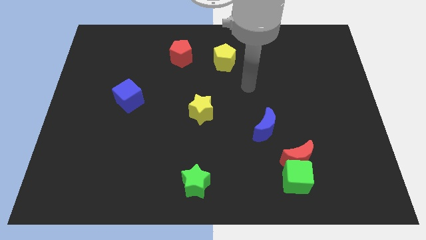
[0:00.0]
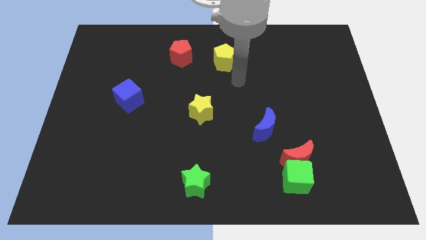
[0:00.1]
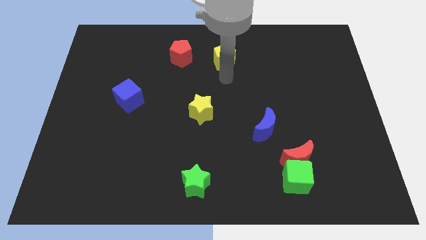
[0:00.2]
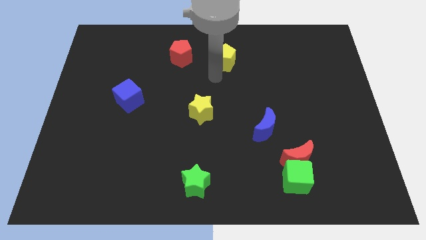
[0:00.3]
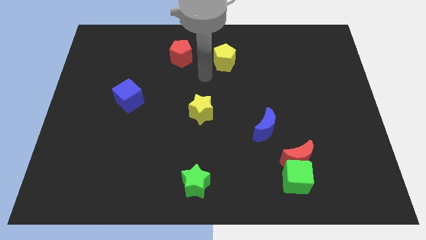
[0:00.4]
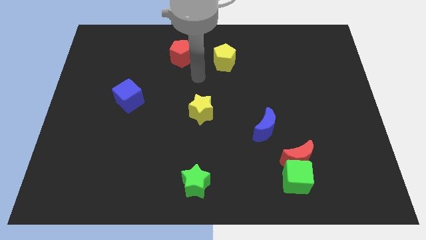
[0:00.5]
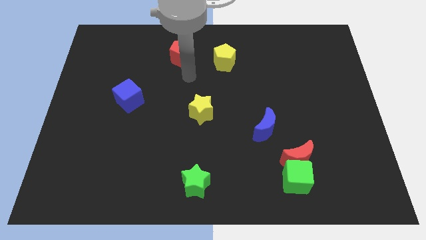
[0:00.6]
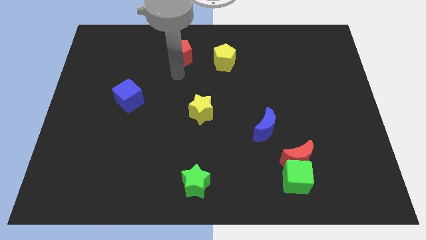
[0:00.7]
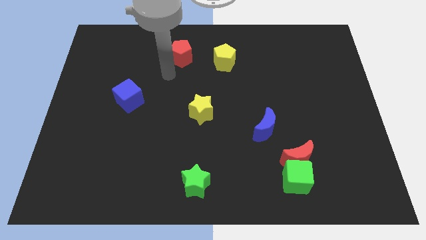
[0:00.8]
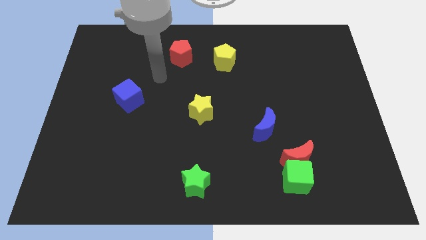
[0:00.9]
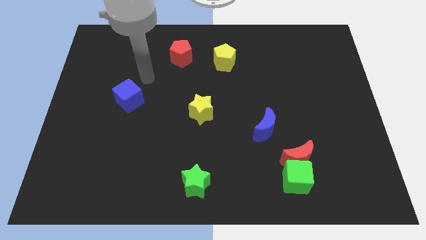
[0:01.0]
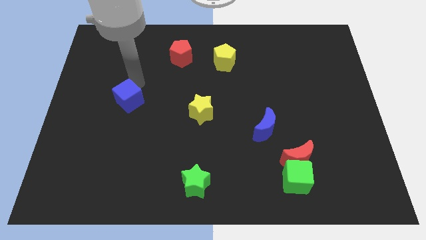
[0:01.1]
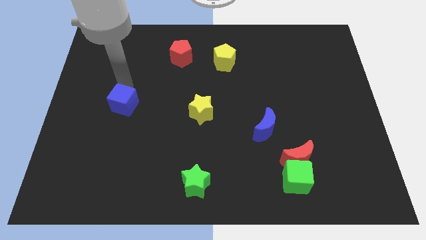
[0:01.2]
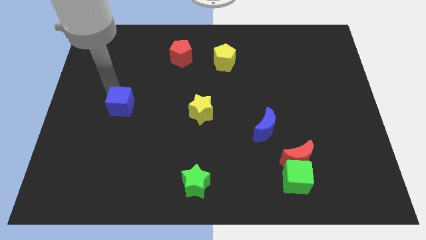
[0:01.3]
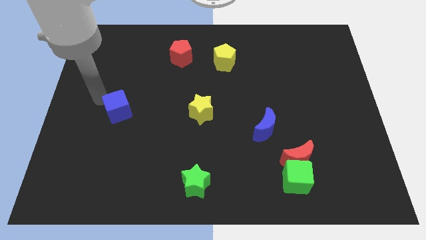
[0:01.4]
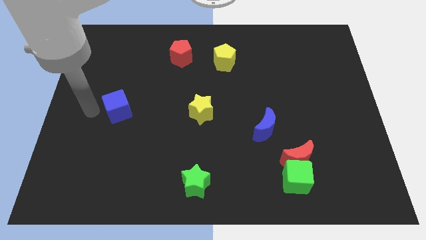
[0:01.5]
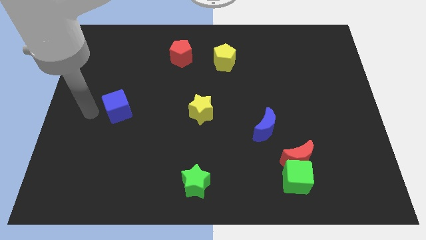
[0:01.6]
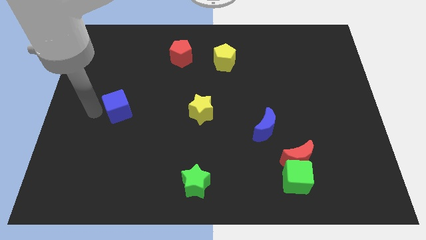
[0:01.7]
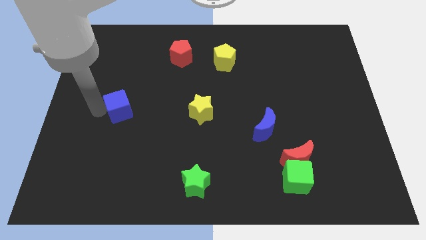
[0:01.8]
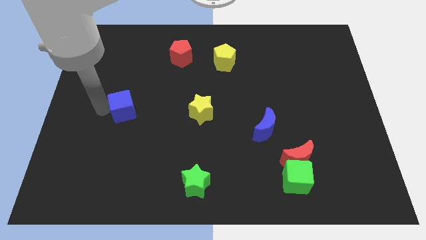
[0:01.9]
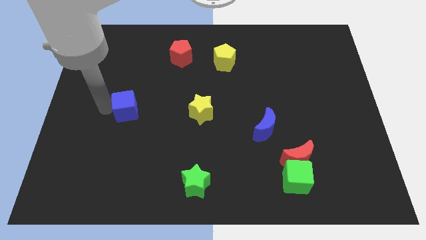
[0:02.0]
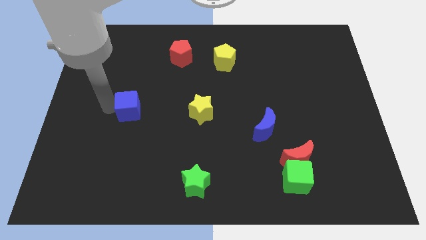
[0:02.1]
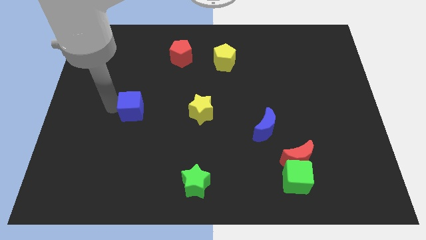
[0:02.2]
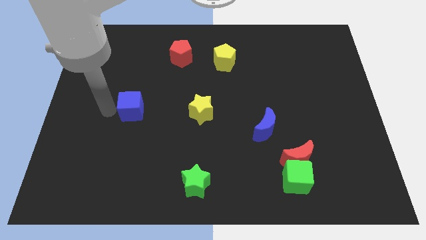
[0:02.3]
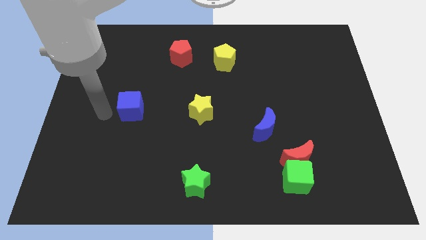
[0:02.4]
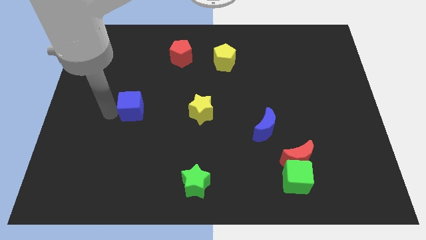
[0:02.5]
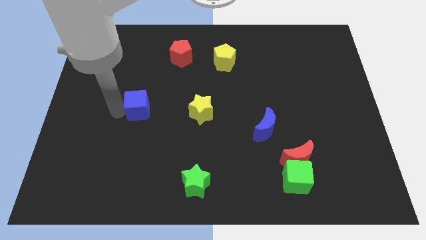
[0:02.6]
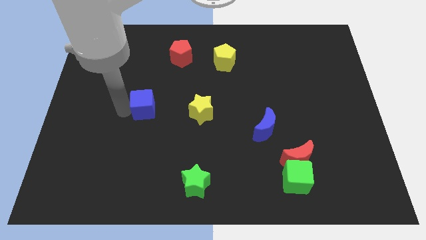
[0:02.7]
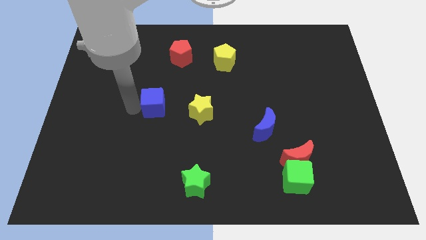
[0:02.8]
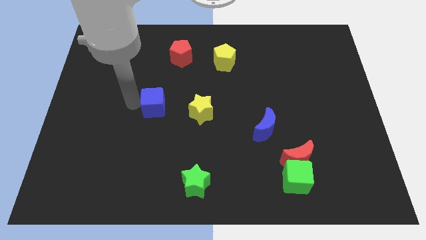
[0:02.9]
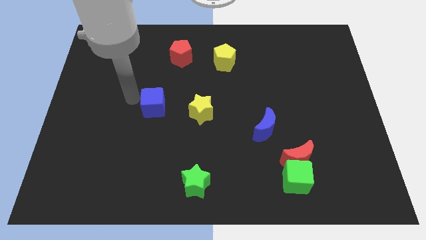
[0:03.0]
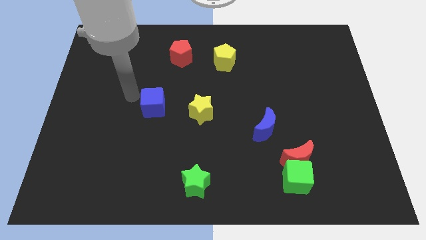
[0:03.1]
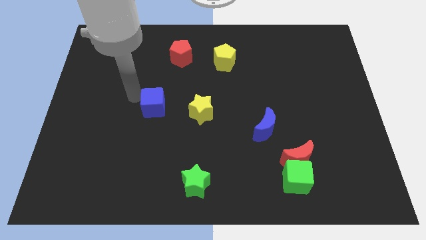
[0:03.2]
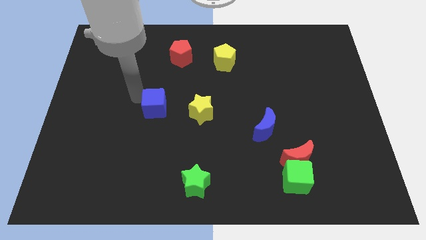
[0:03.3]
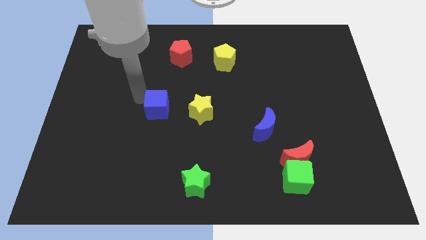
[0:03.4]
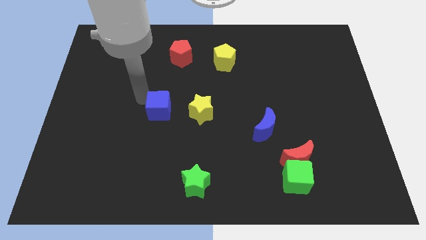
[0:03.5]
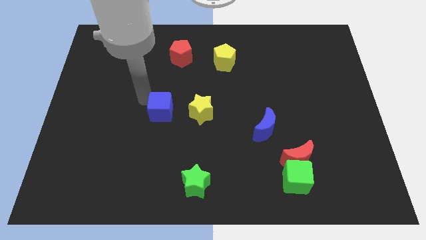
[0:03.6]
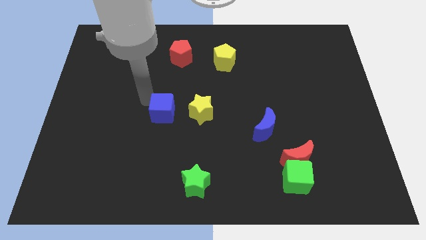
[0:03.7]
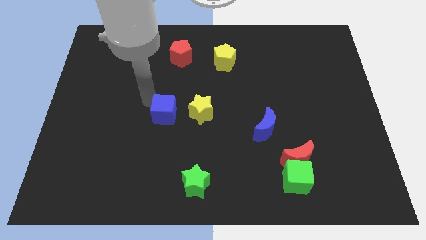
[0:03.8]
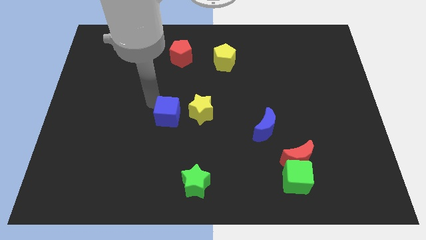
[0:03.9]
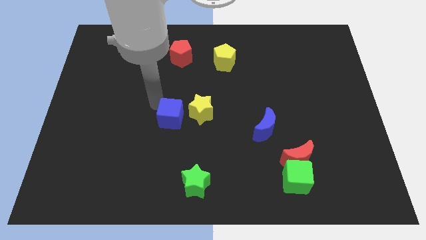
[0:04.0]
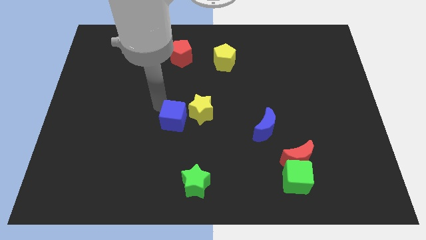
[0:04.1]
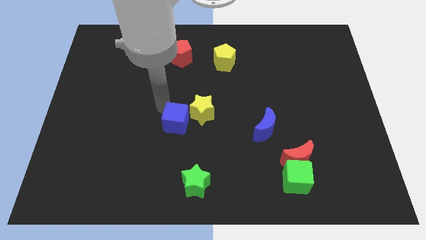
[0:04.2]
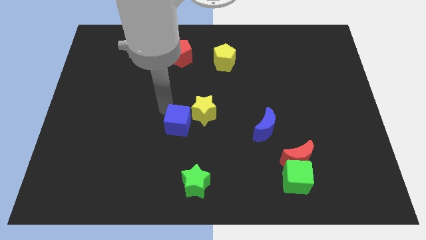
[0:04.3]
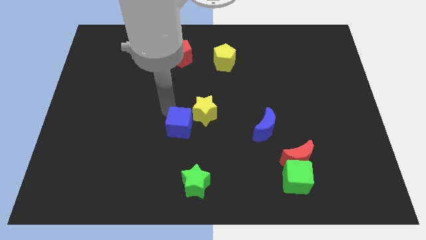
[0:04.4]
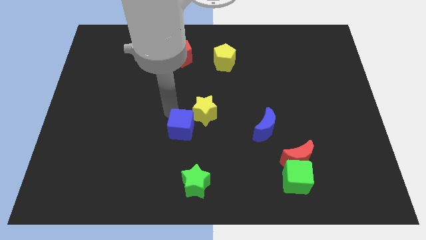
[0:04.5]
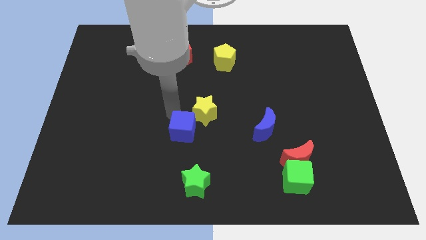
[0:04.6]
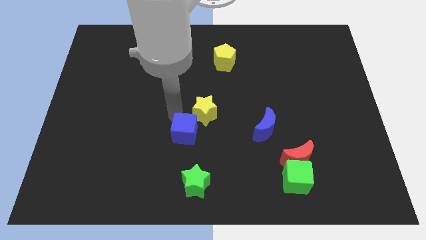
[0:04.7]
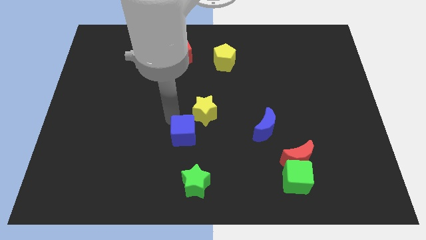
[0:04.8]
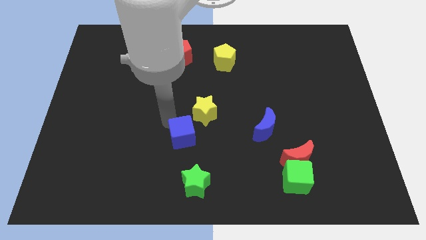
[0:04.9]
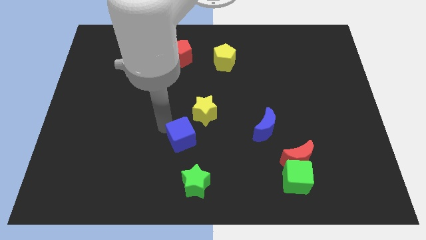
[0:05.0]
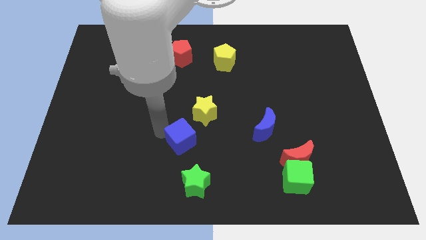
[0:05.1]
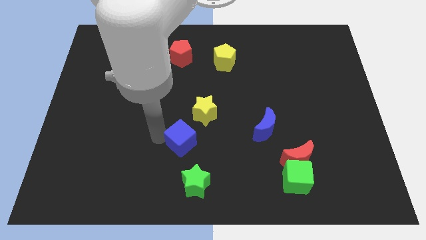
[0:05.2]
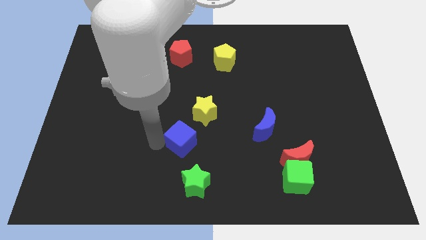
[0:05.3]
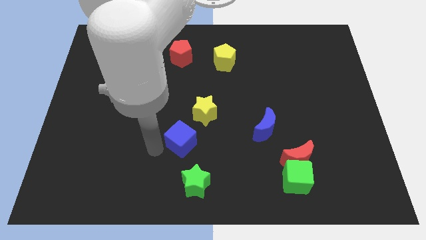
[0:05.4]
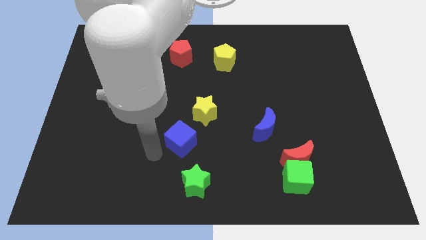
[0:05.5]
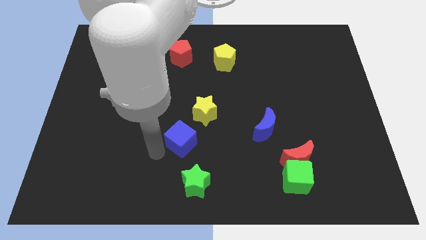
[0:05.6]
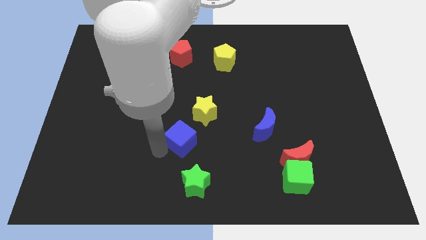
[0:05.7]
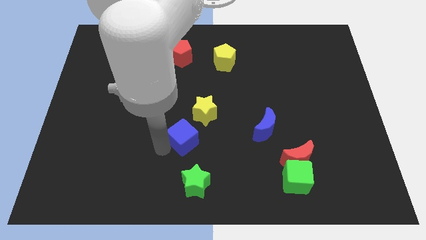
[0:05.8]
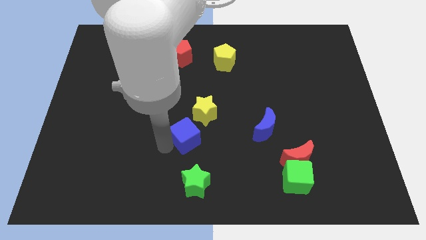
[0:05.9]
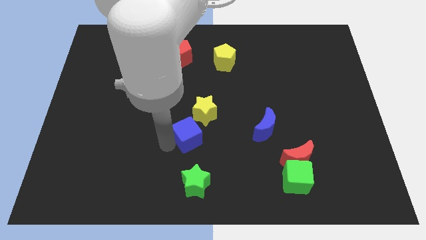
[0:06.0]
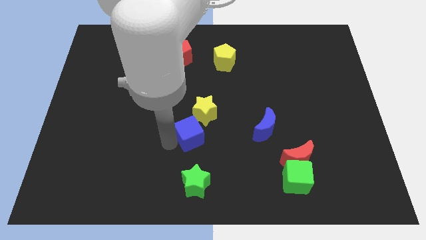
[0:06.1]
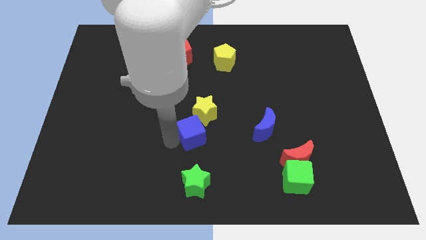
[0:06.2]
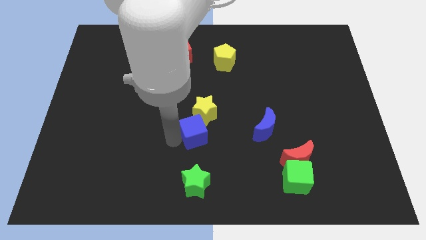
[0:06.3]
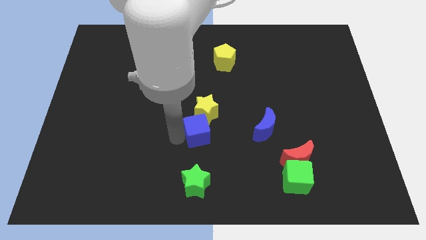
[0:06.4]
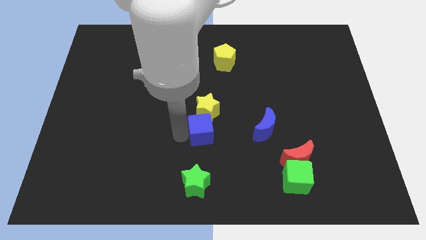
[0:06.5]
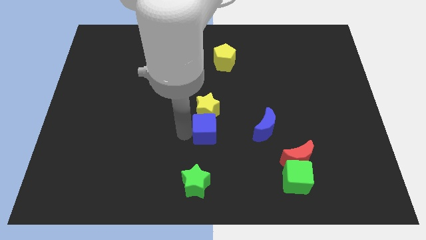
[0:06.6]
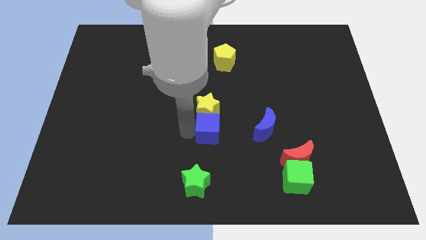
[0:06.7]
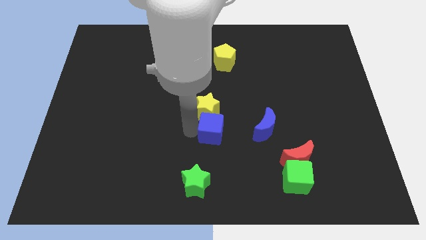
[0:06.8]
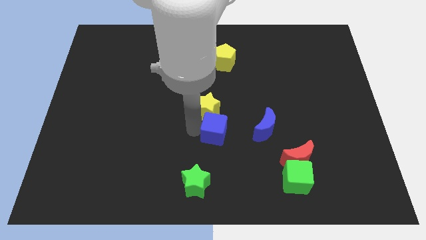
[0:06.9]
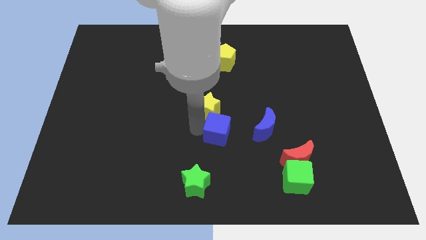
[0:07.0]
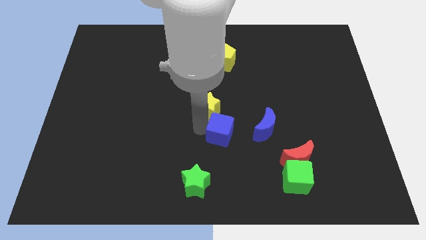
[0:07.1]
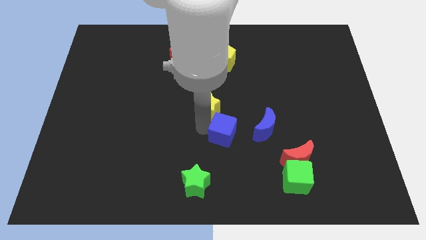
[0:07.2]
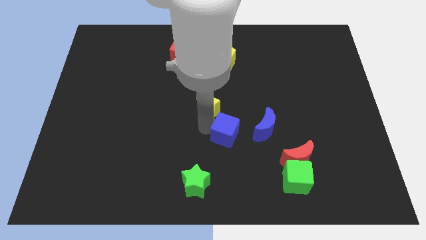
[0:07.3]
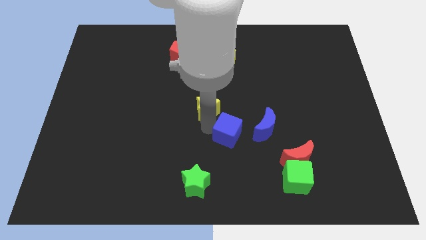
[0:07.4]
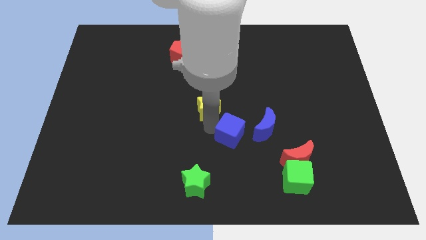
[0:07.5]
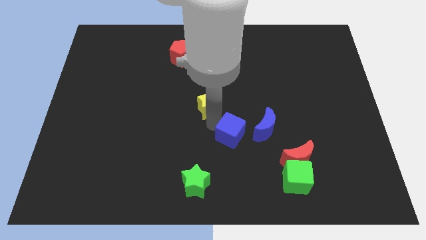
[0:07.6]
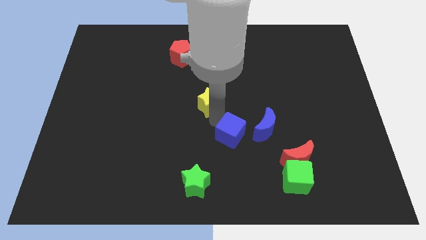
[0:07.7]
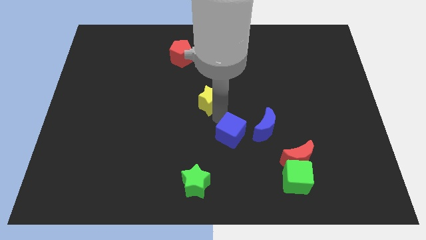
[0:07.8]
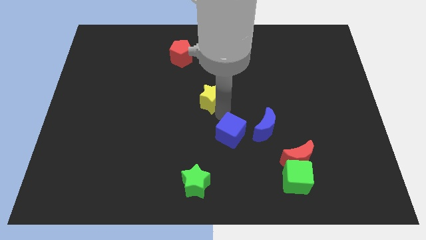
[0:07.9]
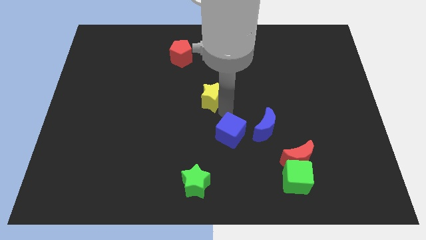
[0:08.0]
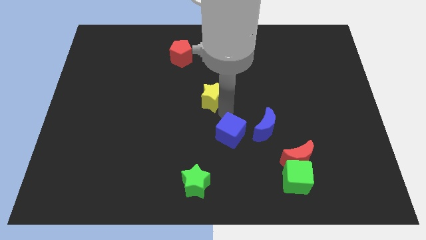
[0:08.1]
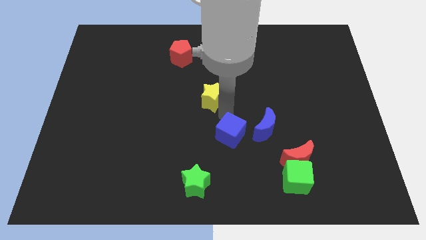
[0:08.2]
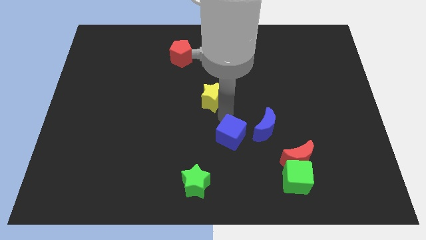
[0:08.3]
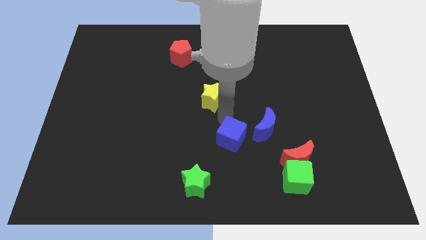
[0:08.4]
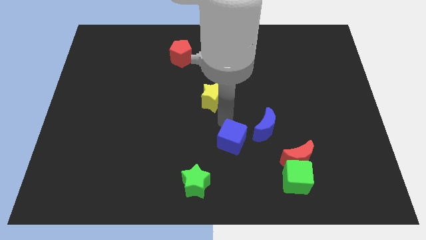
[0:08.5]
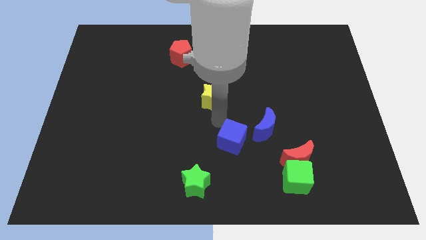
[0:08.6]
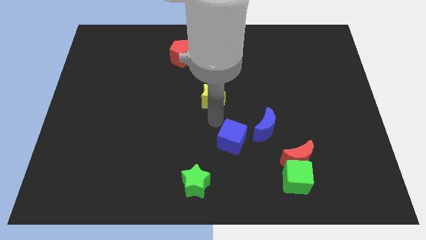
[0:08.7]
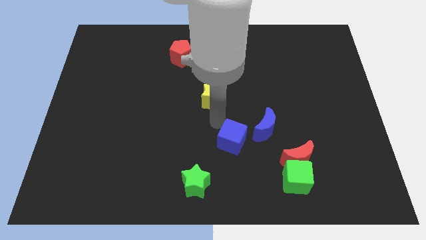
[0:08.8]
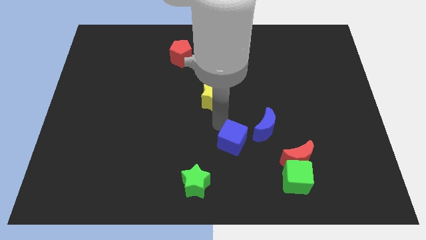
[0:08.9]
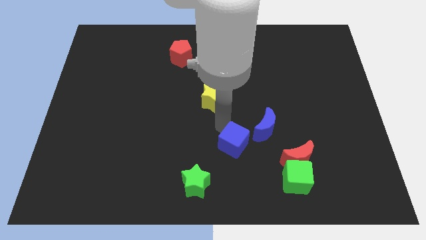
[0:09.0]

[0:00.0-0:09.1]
put the blue cube to the left side of the red moon
